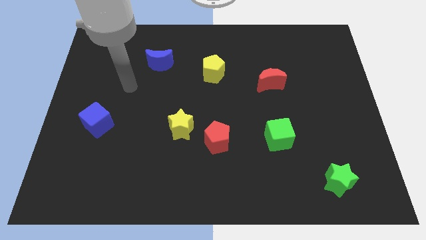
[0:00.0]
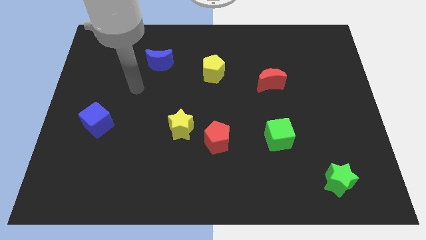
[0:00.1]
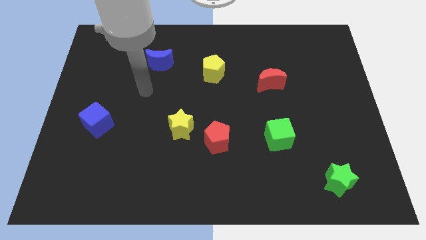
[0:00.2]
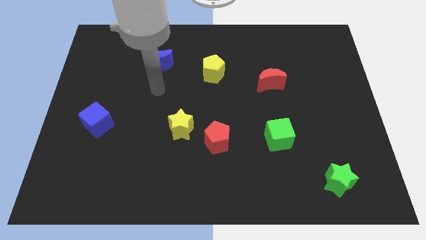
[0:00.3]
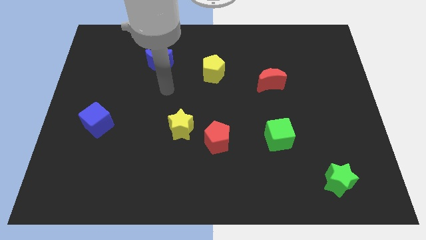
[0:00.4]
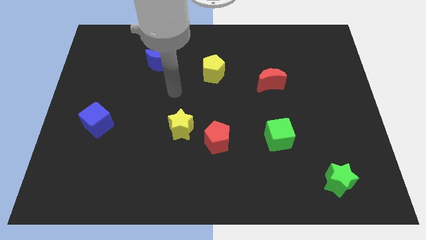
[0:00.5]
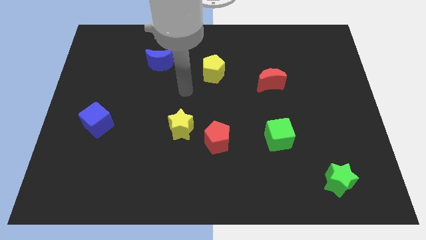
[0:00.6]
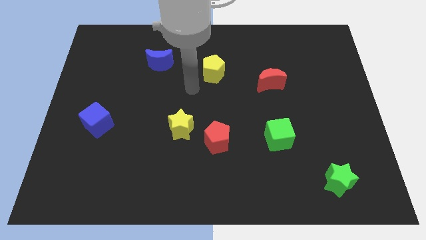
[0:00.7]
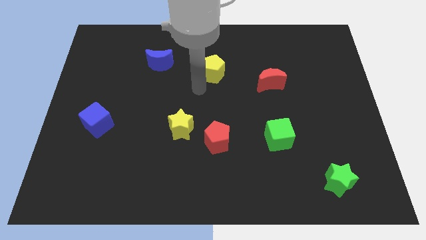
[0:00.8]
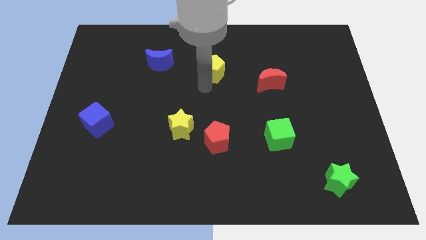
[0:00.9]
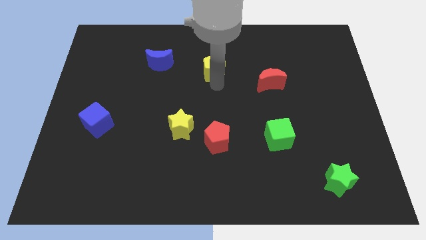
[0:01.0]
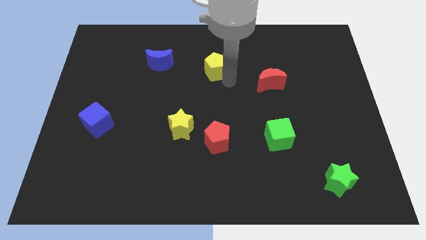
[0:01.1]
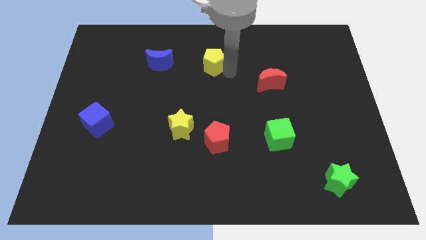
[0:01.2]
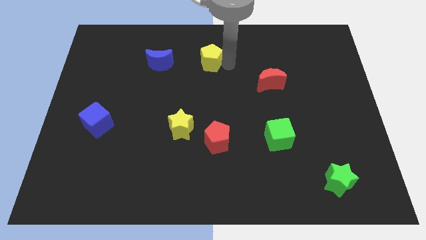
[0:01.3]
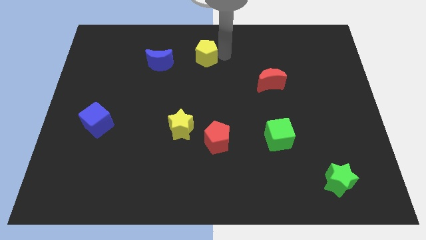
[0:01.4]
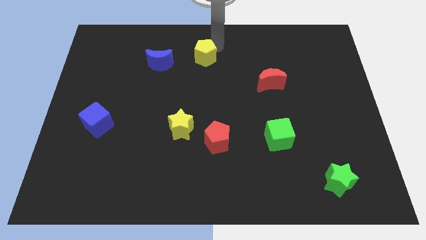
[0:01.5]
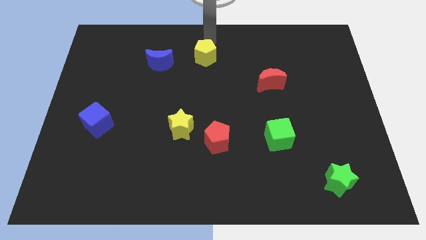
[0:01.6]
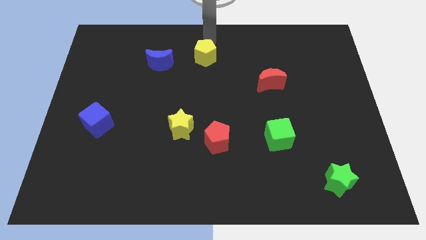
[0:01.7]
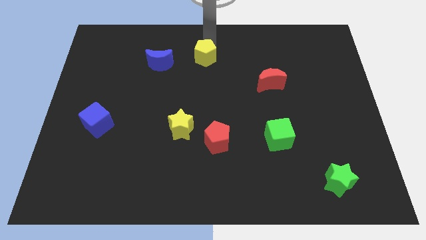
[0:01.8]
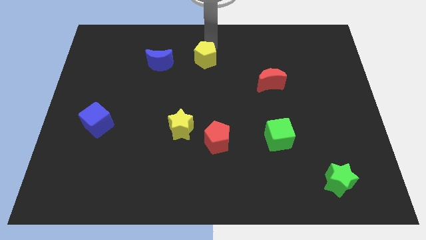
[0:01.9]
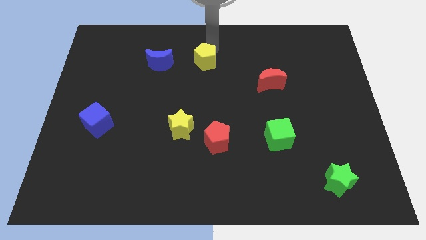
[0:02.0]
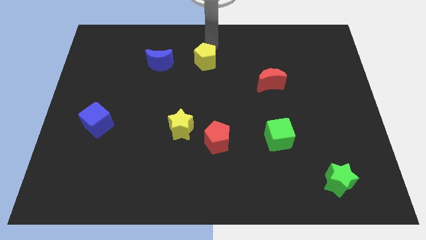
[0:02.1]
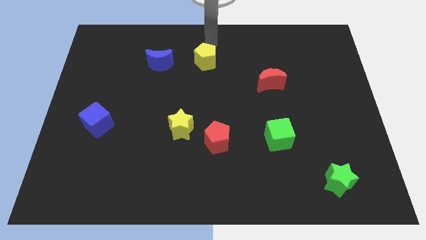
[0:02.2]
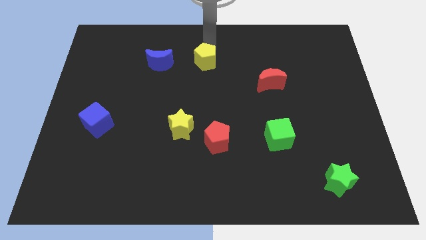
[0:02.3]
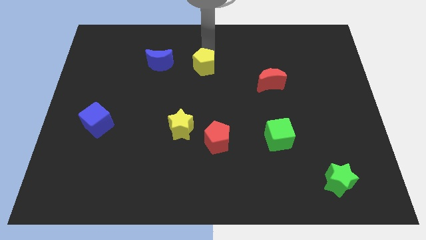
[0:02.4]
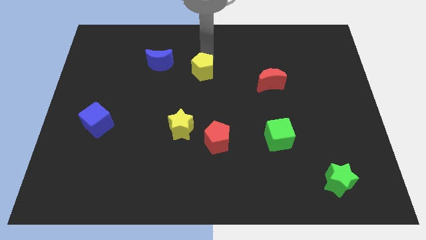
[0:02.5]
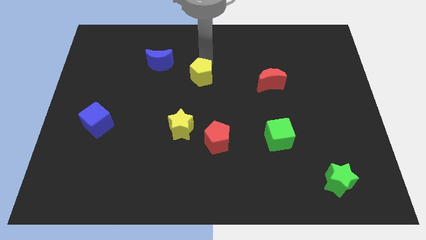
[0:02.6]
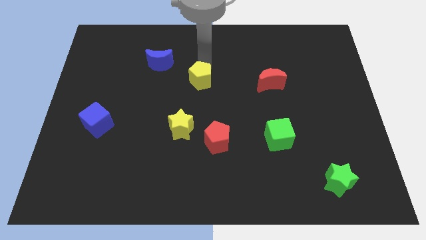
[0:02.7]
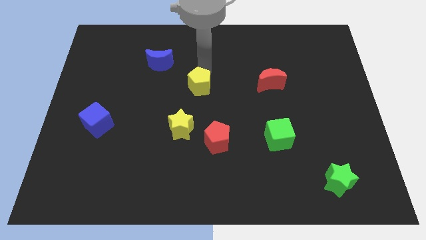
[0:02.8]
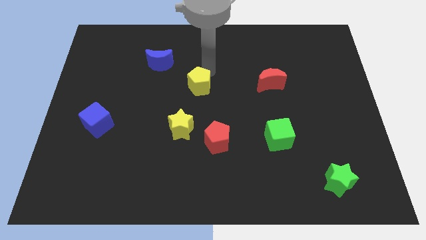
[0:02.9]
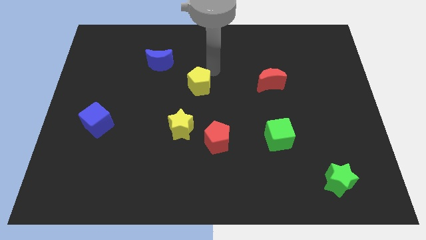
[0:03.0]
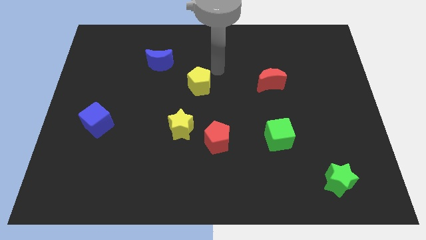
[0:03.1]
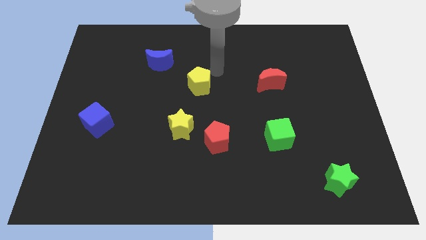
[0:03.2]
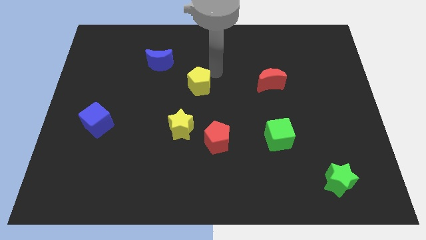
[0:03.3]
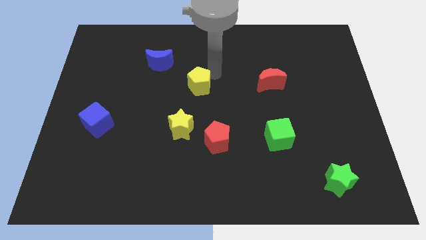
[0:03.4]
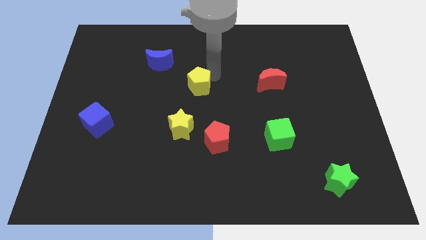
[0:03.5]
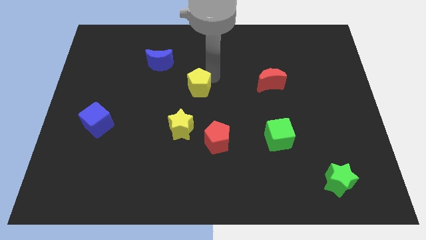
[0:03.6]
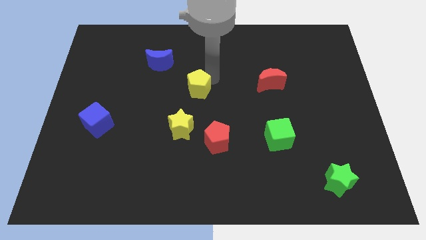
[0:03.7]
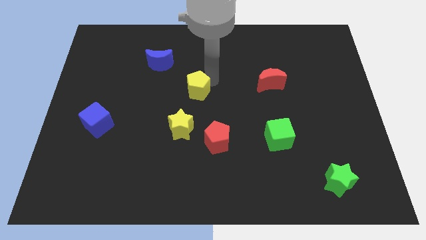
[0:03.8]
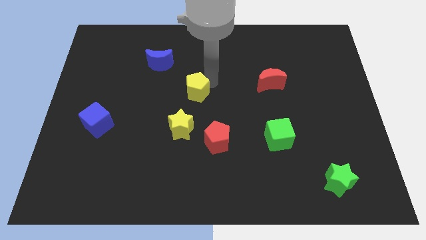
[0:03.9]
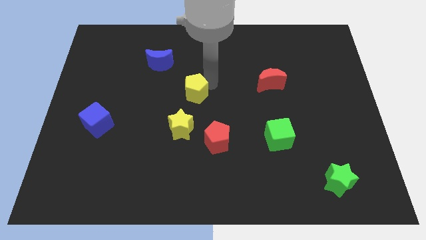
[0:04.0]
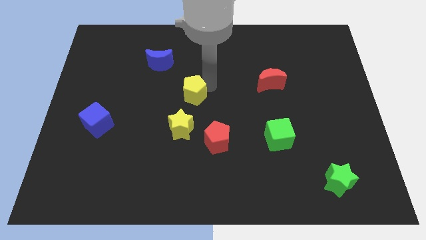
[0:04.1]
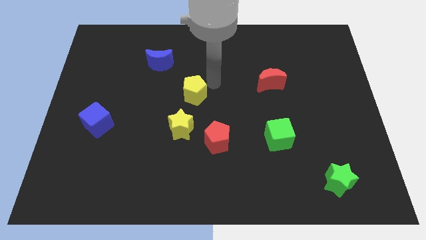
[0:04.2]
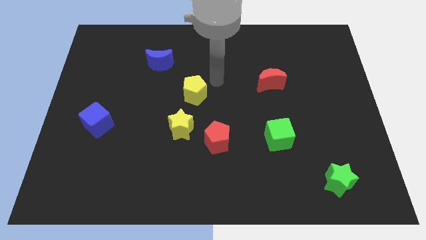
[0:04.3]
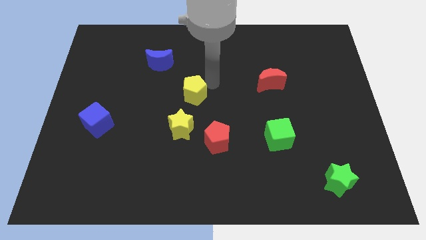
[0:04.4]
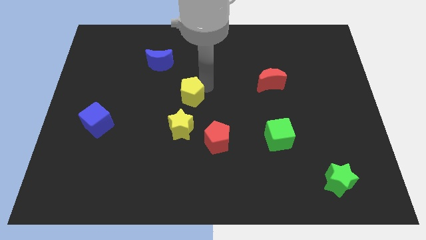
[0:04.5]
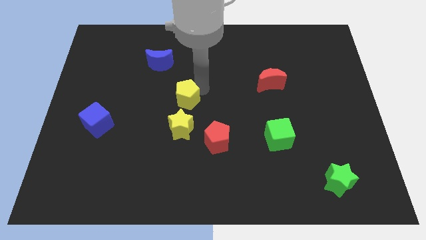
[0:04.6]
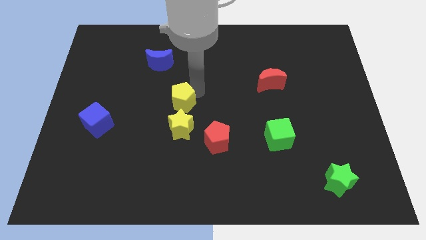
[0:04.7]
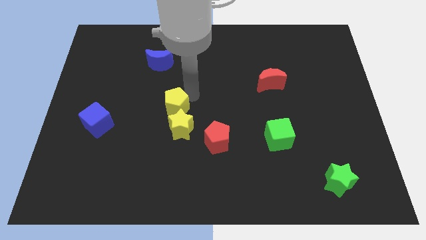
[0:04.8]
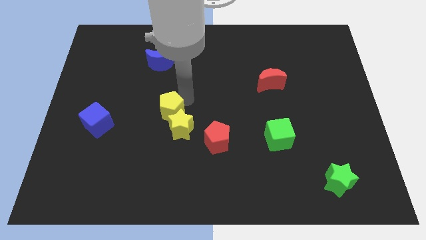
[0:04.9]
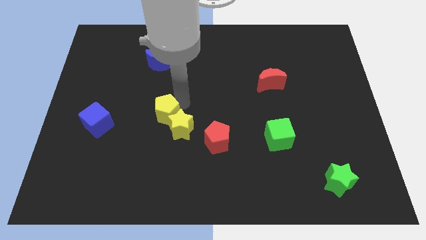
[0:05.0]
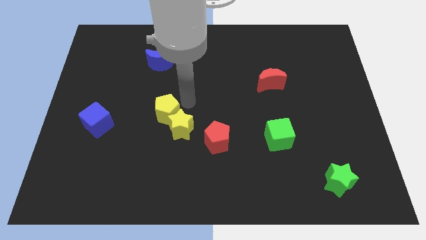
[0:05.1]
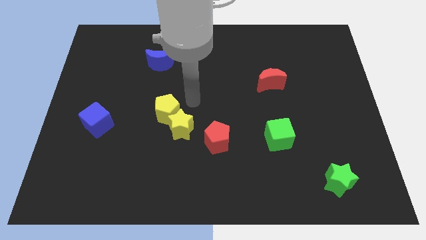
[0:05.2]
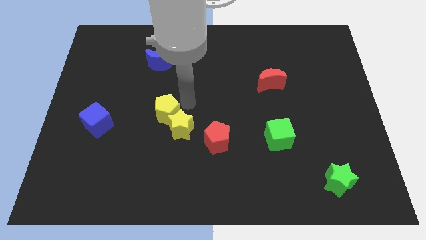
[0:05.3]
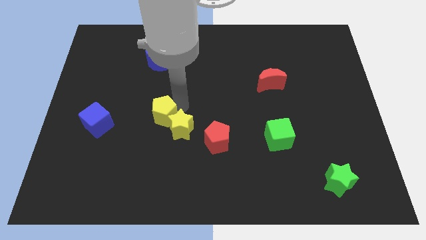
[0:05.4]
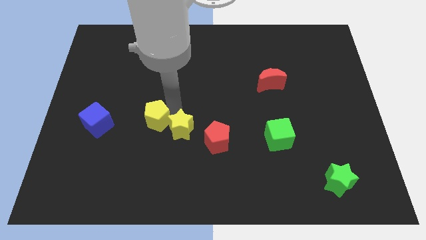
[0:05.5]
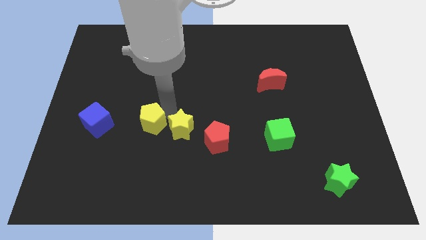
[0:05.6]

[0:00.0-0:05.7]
push the yellow pentagon down and left

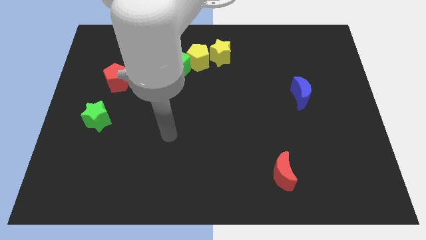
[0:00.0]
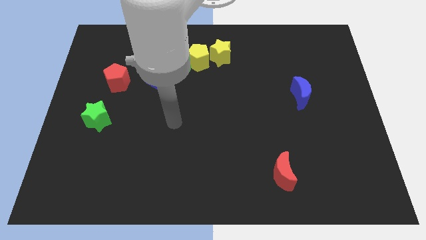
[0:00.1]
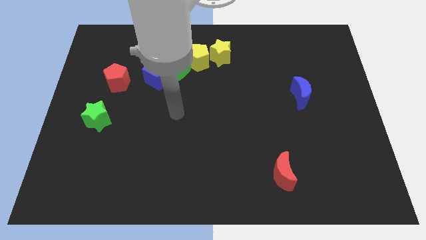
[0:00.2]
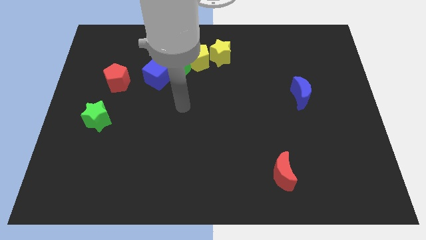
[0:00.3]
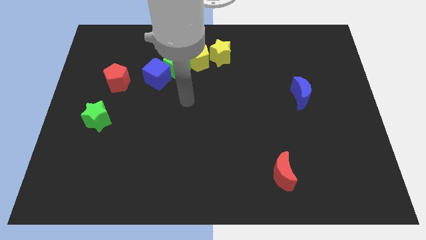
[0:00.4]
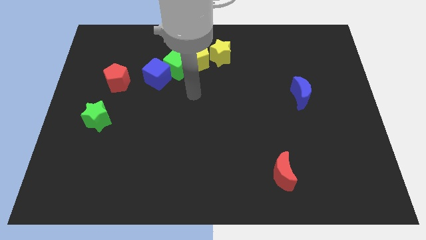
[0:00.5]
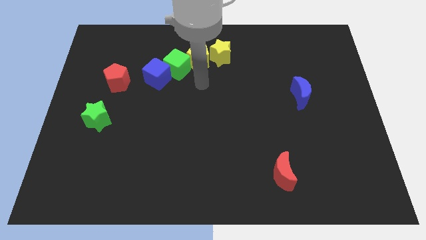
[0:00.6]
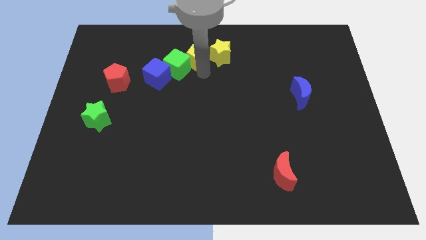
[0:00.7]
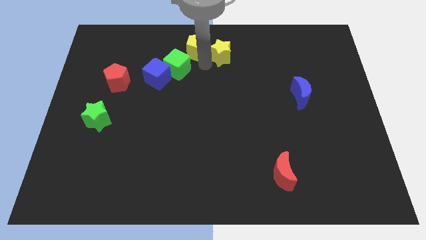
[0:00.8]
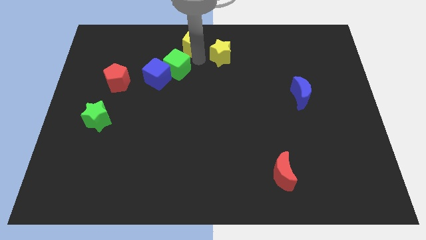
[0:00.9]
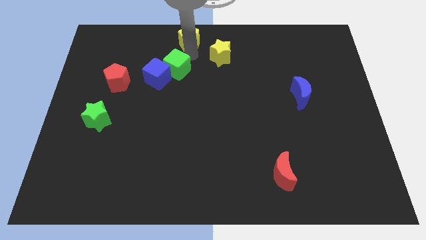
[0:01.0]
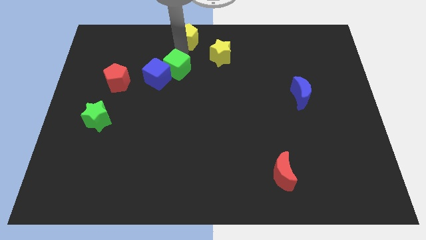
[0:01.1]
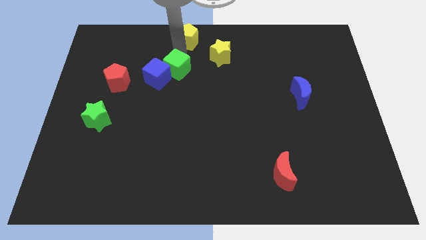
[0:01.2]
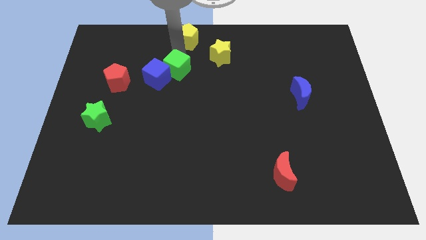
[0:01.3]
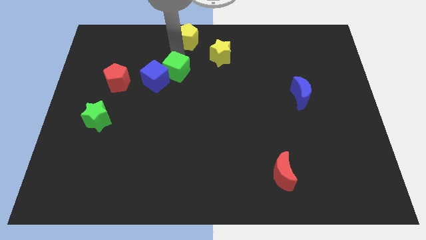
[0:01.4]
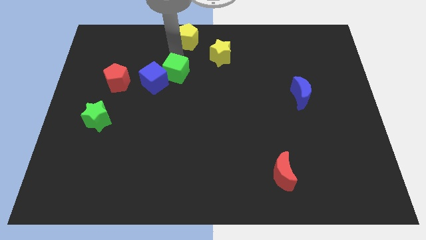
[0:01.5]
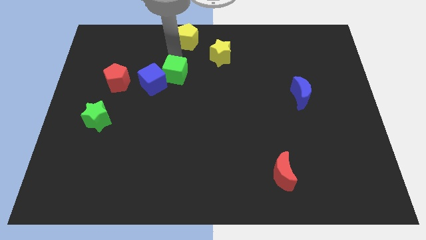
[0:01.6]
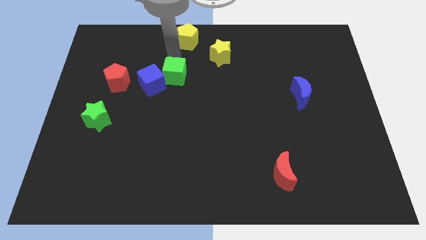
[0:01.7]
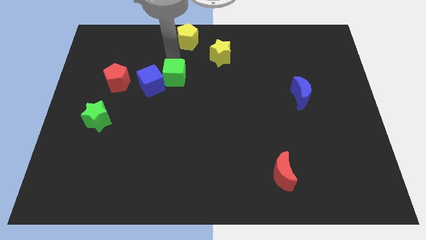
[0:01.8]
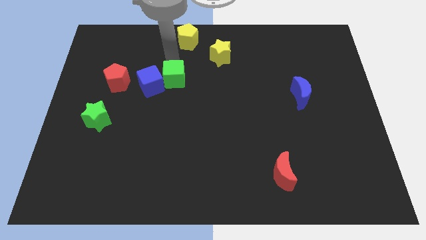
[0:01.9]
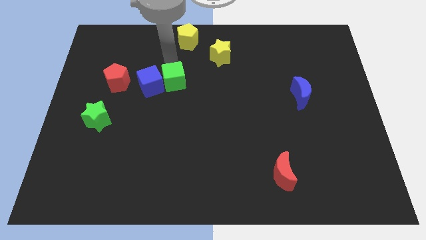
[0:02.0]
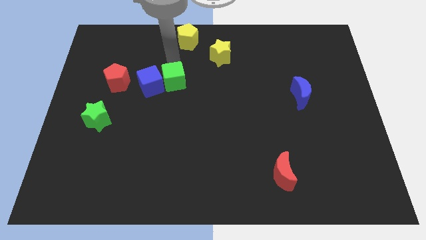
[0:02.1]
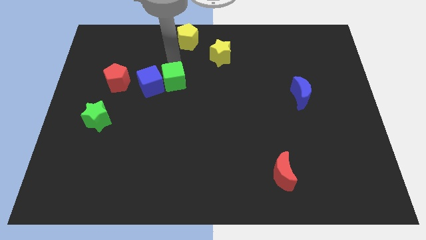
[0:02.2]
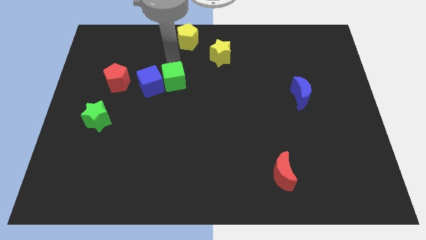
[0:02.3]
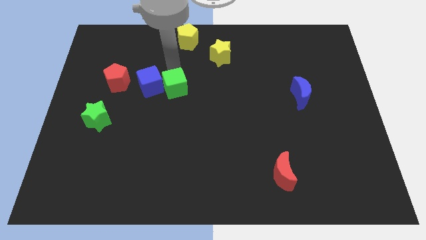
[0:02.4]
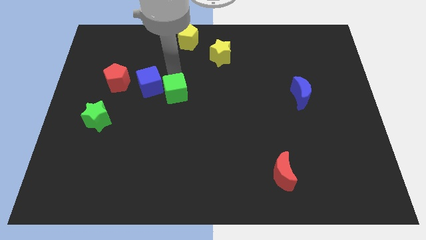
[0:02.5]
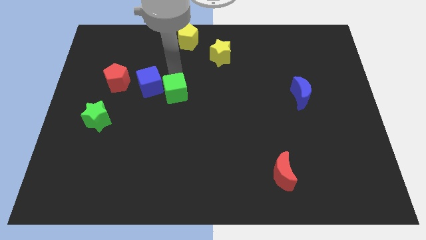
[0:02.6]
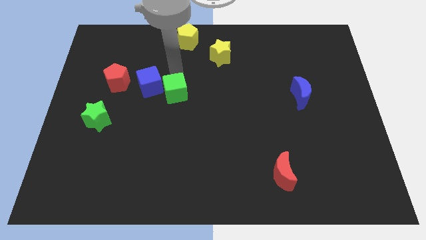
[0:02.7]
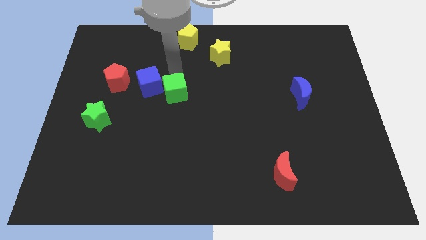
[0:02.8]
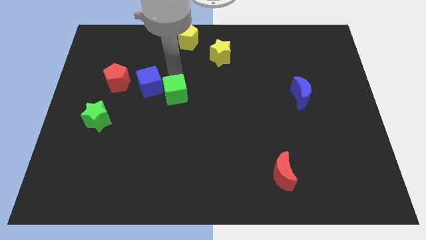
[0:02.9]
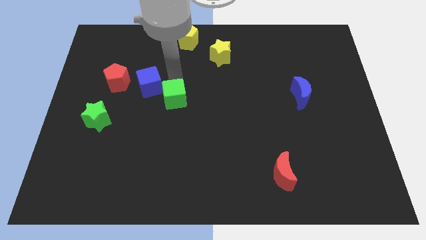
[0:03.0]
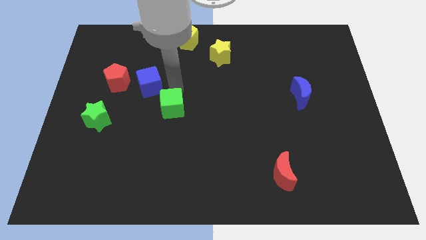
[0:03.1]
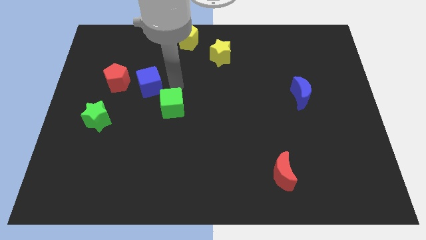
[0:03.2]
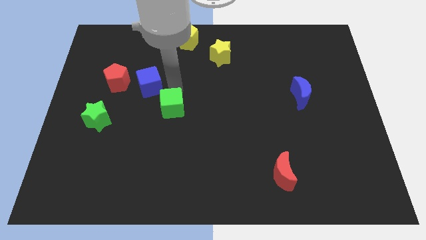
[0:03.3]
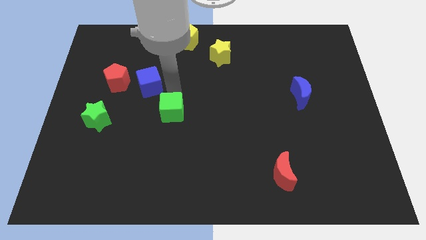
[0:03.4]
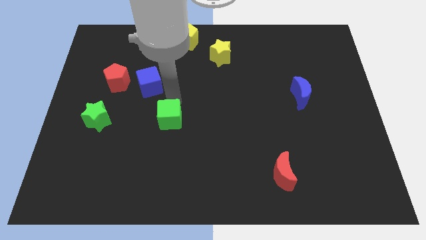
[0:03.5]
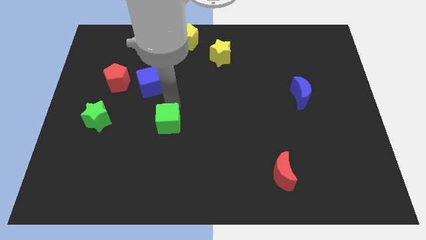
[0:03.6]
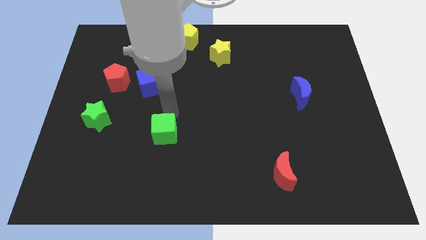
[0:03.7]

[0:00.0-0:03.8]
move the green cube down
